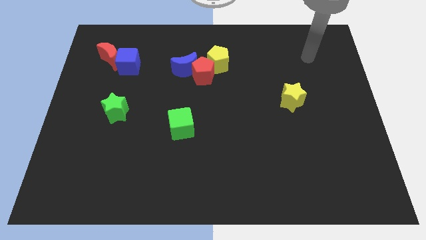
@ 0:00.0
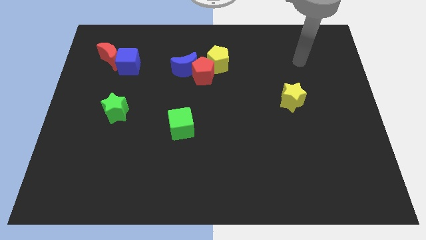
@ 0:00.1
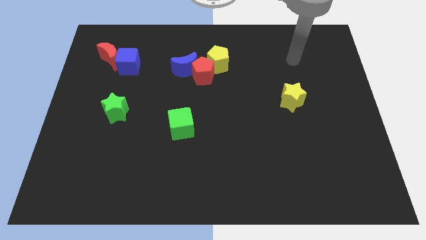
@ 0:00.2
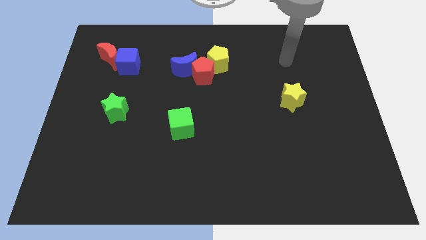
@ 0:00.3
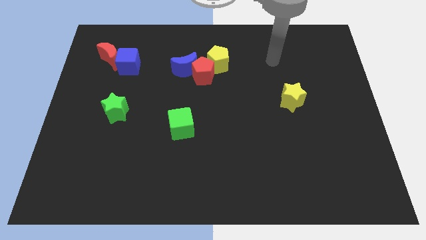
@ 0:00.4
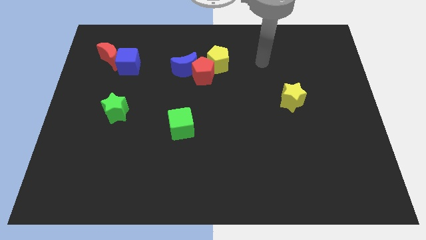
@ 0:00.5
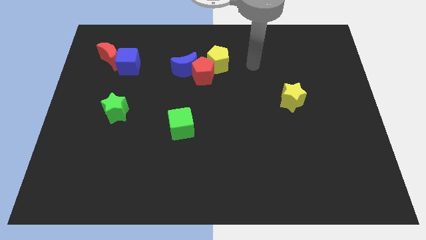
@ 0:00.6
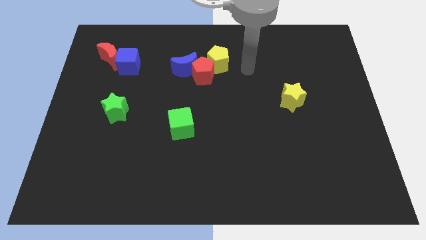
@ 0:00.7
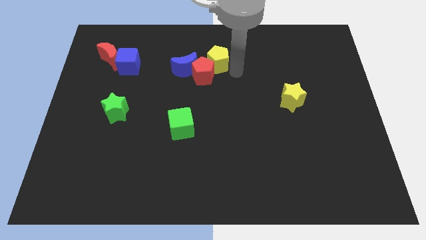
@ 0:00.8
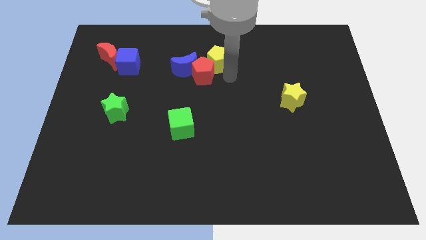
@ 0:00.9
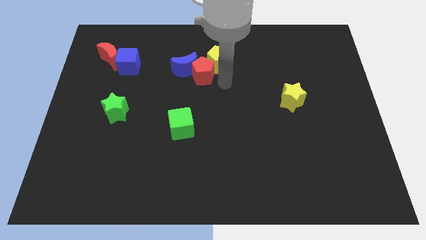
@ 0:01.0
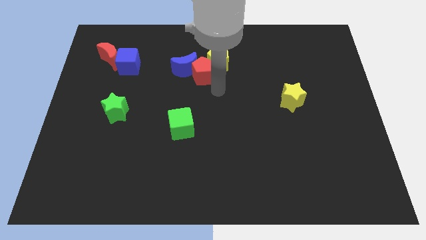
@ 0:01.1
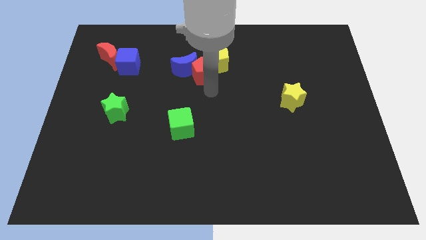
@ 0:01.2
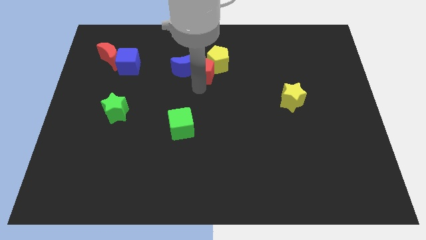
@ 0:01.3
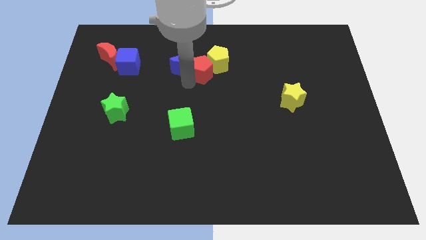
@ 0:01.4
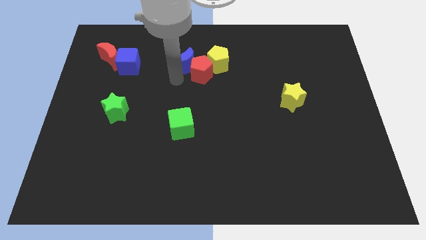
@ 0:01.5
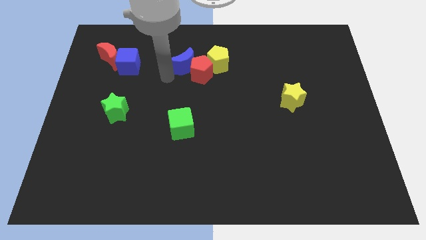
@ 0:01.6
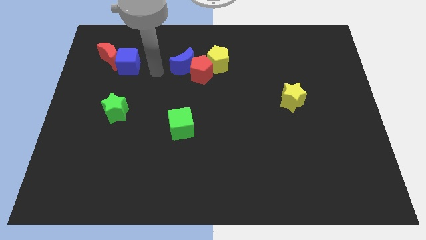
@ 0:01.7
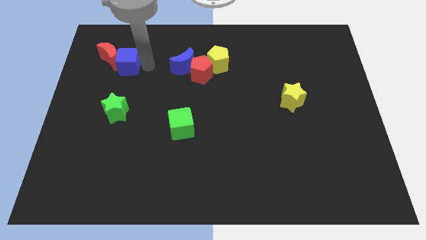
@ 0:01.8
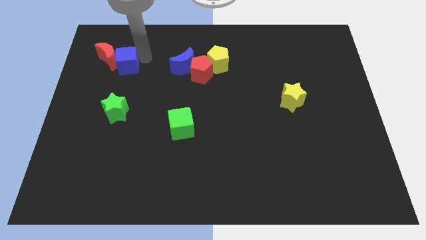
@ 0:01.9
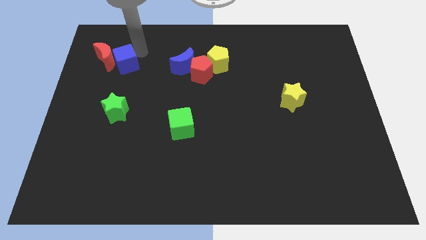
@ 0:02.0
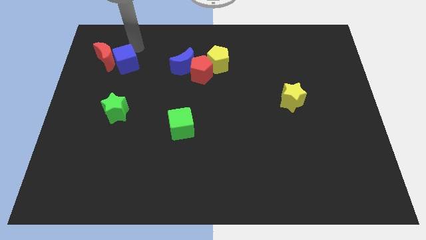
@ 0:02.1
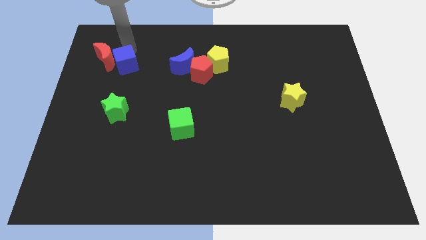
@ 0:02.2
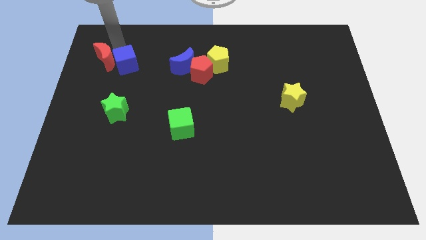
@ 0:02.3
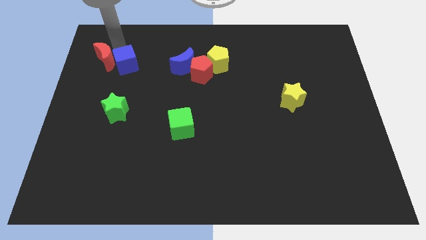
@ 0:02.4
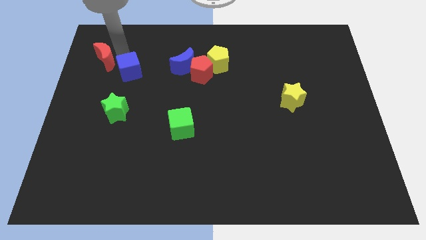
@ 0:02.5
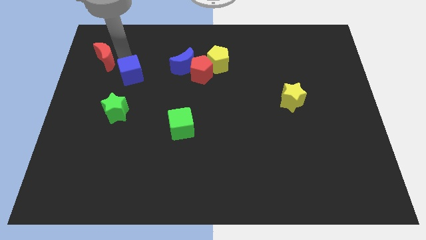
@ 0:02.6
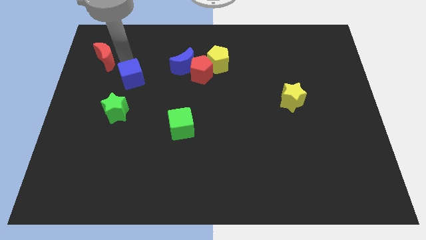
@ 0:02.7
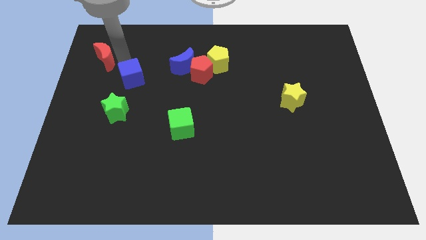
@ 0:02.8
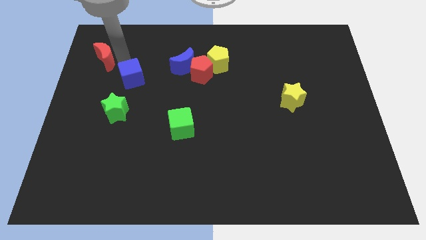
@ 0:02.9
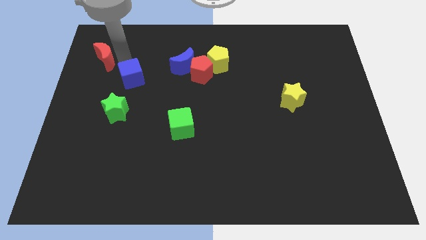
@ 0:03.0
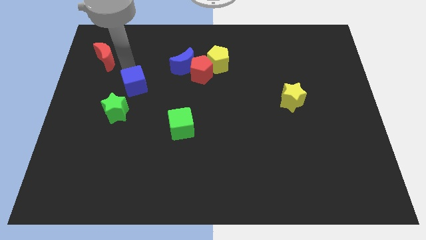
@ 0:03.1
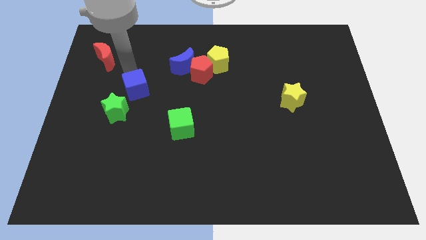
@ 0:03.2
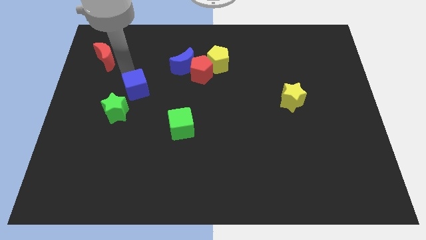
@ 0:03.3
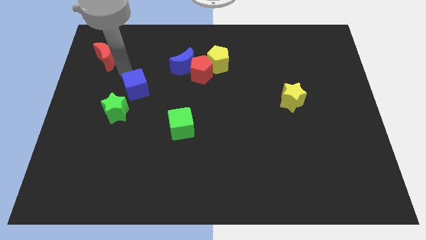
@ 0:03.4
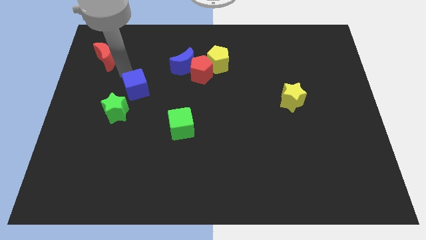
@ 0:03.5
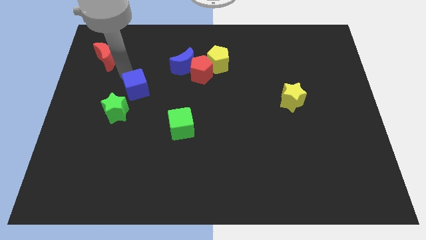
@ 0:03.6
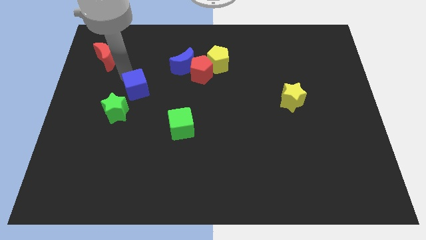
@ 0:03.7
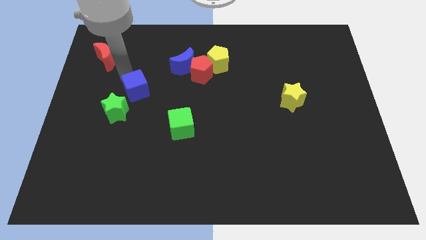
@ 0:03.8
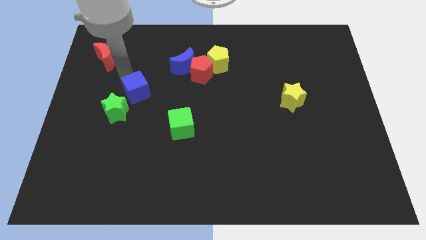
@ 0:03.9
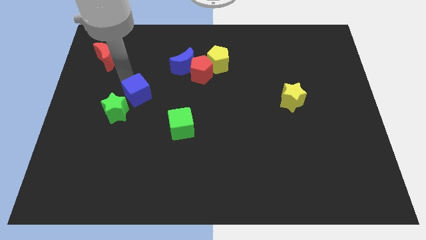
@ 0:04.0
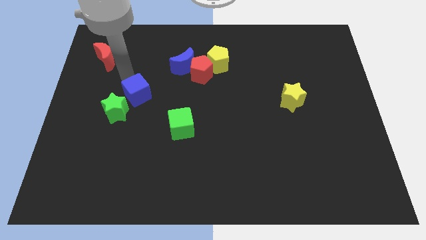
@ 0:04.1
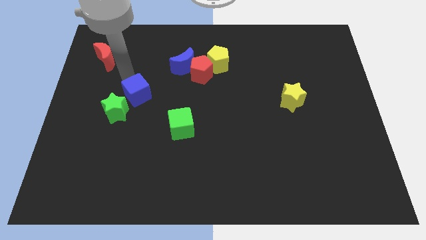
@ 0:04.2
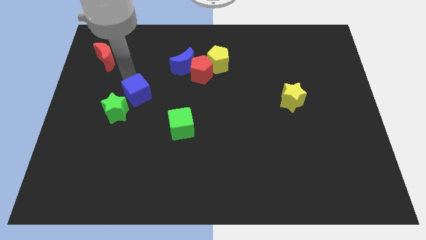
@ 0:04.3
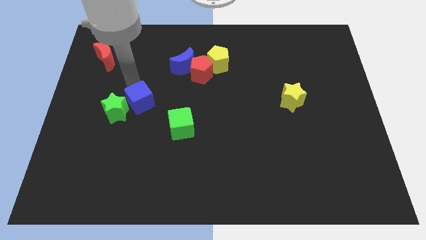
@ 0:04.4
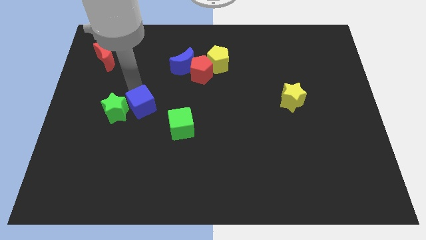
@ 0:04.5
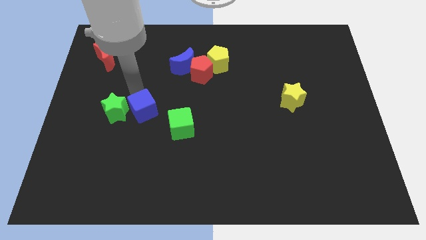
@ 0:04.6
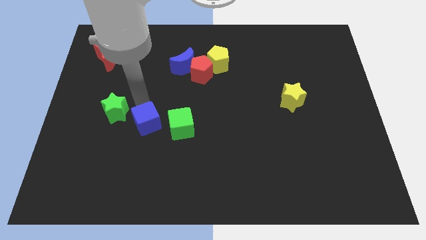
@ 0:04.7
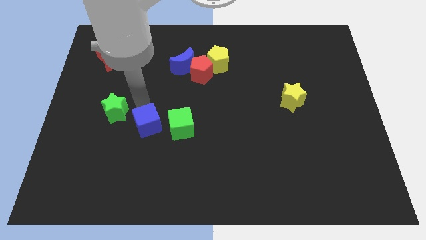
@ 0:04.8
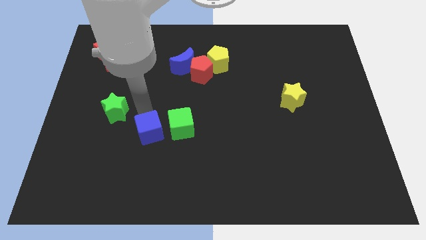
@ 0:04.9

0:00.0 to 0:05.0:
move the blue cube diagonally down and to the left of the green cube

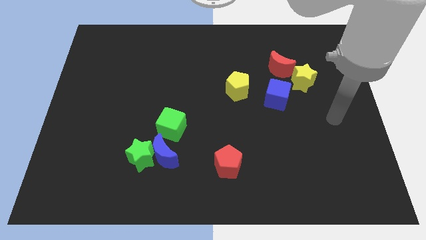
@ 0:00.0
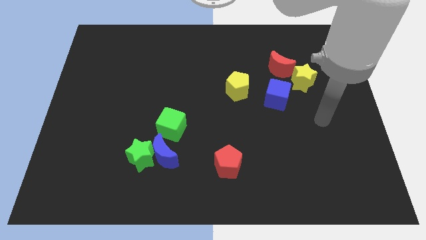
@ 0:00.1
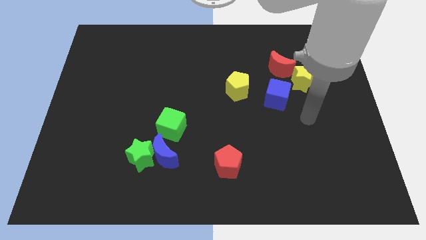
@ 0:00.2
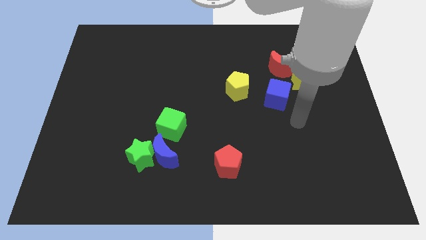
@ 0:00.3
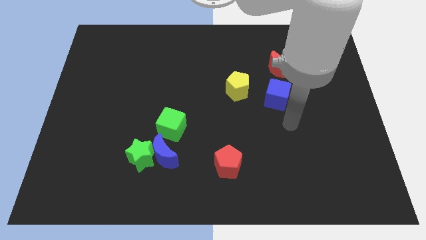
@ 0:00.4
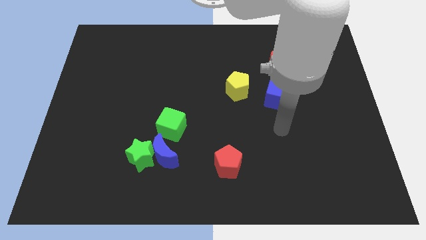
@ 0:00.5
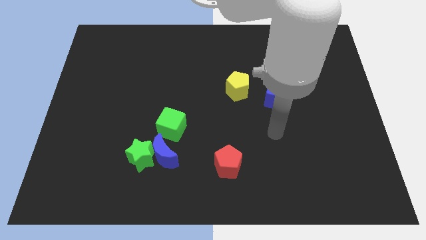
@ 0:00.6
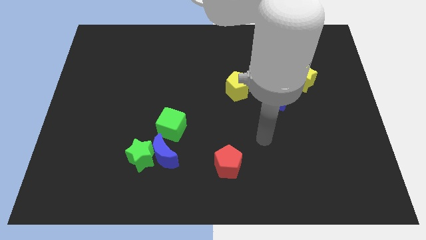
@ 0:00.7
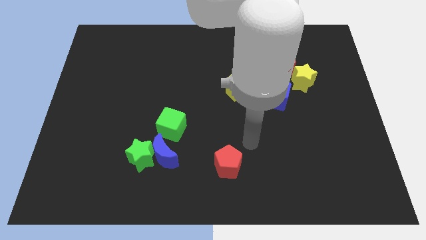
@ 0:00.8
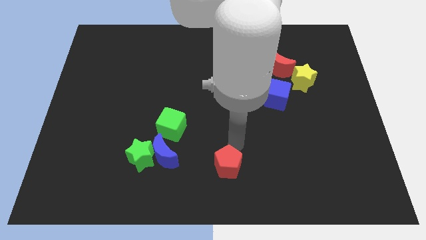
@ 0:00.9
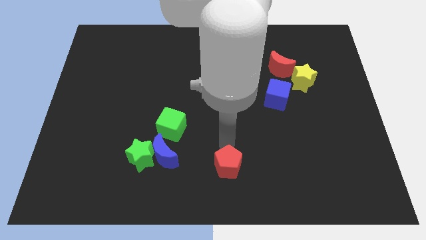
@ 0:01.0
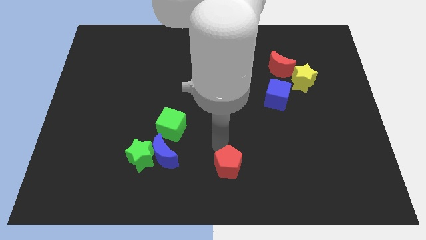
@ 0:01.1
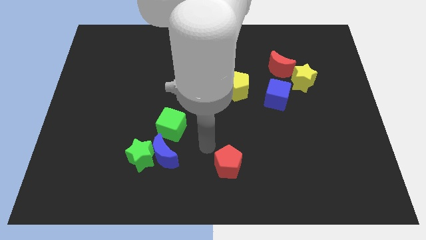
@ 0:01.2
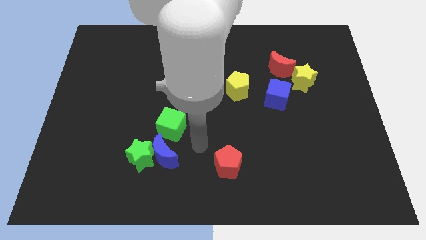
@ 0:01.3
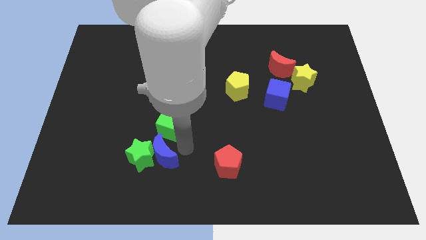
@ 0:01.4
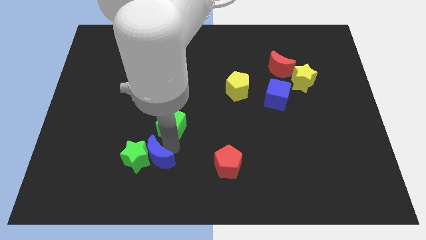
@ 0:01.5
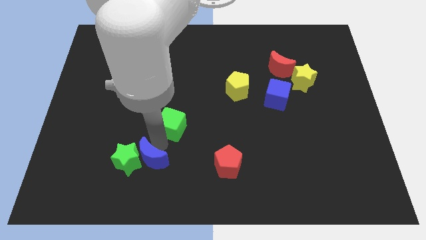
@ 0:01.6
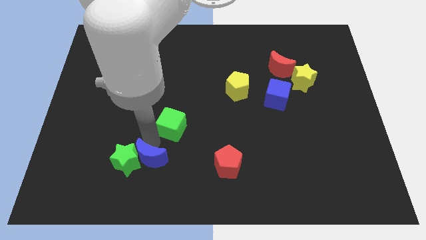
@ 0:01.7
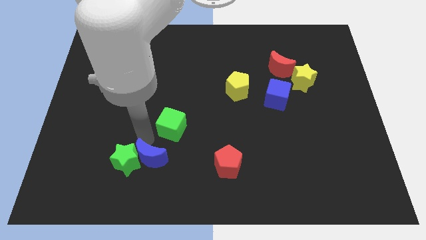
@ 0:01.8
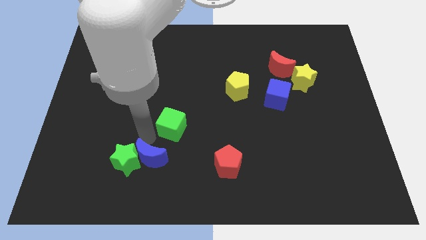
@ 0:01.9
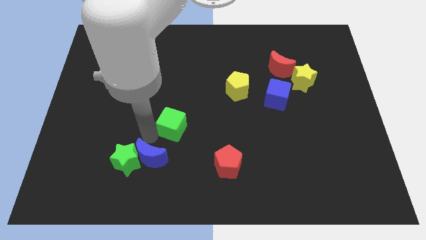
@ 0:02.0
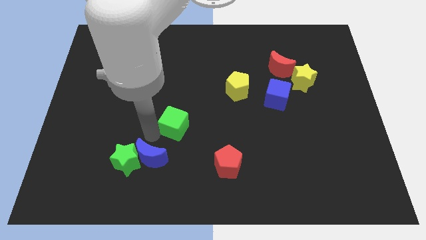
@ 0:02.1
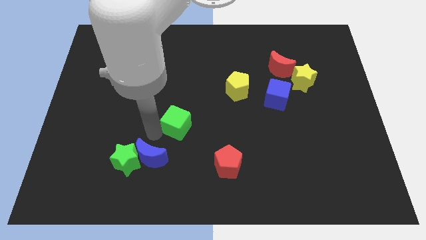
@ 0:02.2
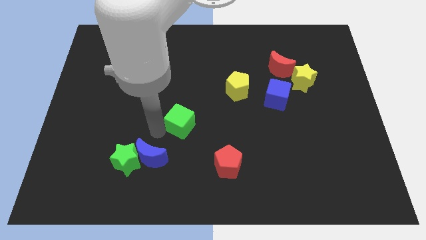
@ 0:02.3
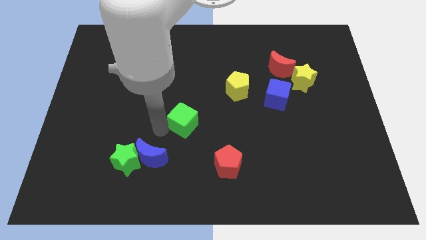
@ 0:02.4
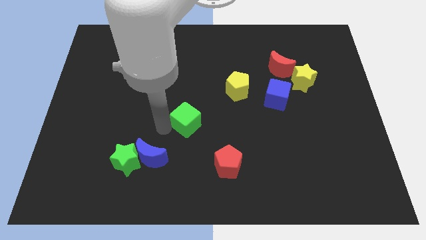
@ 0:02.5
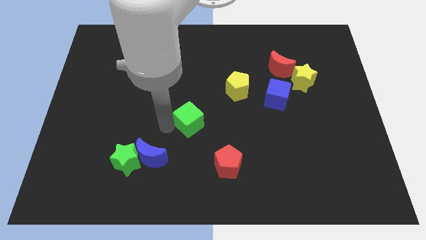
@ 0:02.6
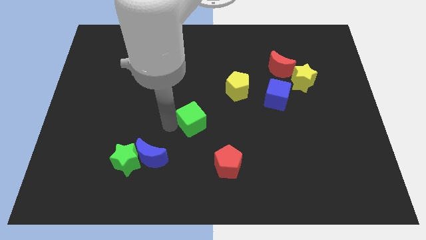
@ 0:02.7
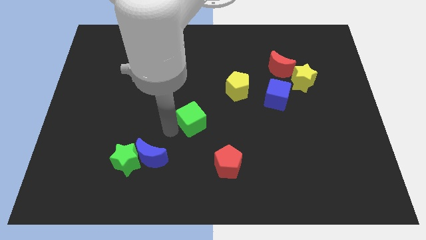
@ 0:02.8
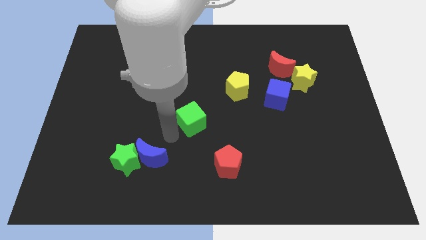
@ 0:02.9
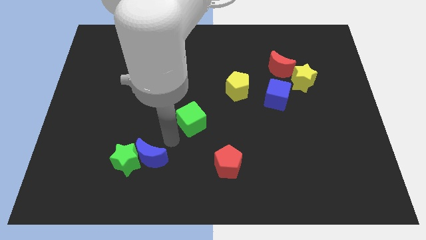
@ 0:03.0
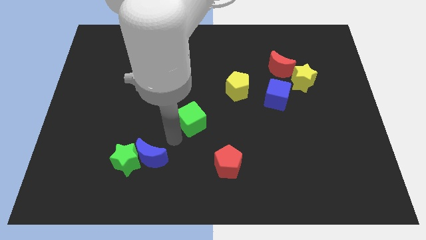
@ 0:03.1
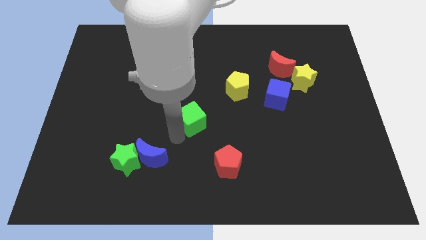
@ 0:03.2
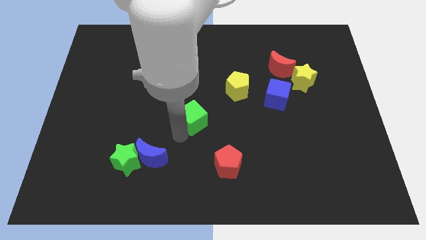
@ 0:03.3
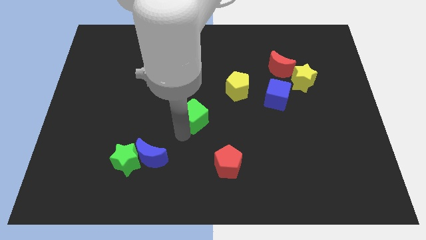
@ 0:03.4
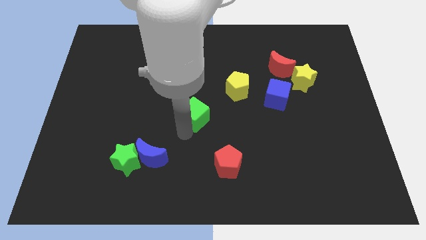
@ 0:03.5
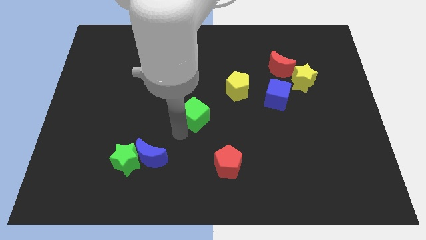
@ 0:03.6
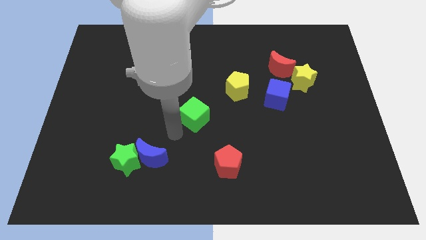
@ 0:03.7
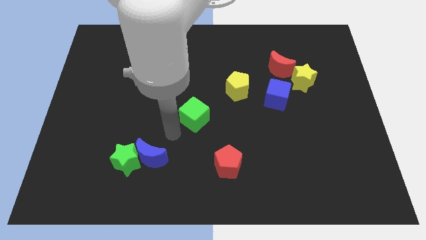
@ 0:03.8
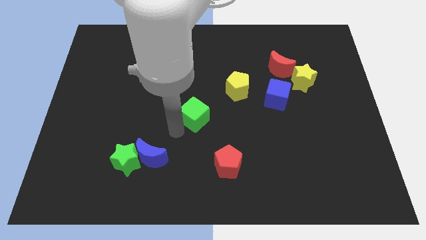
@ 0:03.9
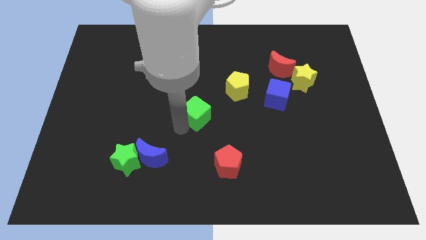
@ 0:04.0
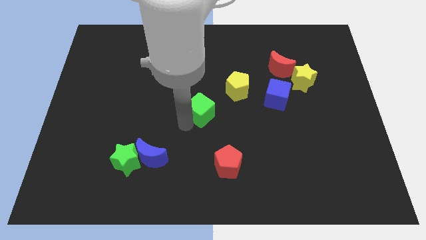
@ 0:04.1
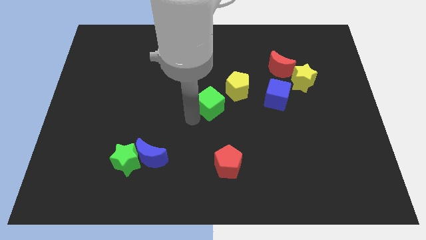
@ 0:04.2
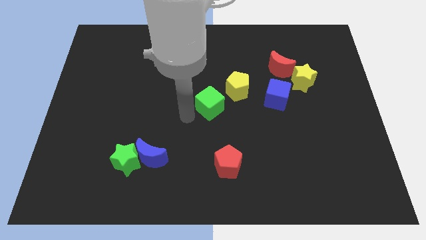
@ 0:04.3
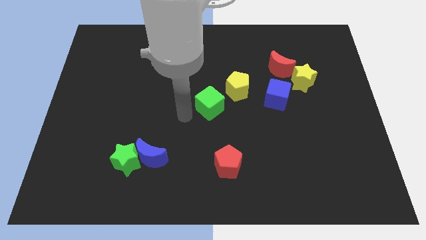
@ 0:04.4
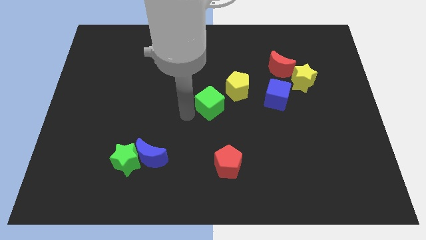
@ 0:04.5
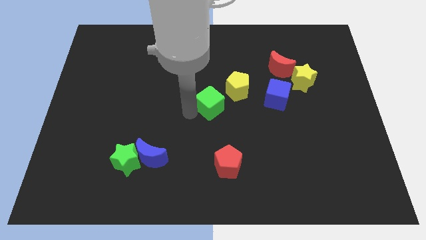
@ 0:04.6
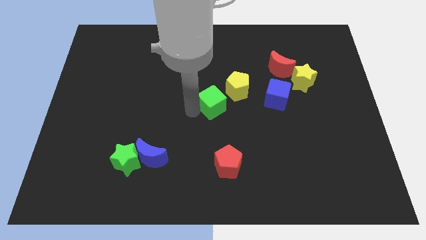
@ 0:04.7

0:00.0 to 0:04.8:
slide the green cube left of the blue cube
